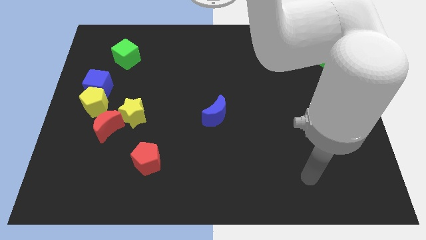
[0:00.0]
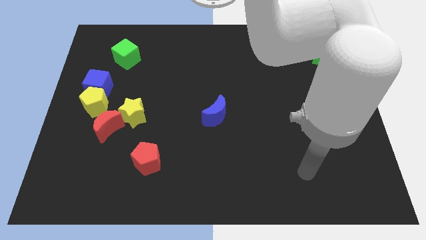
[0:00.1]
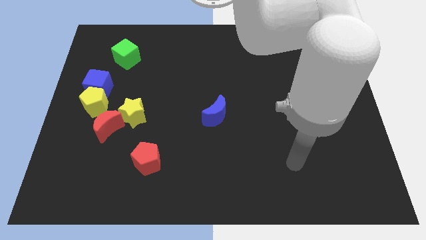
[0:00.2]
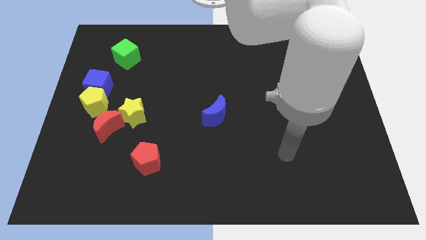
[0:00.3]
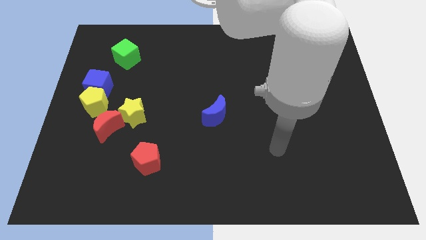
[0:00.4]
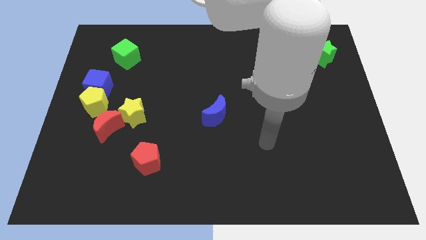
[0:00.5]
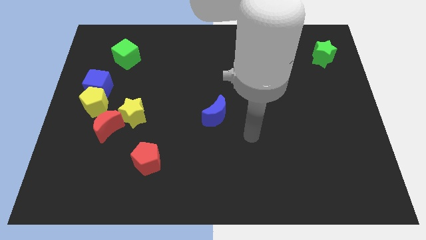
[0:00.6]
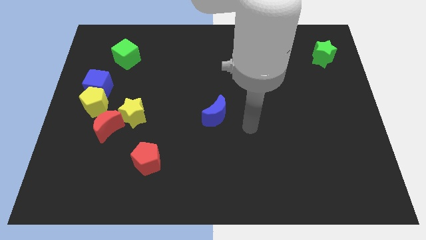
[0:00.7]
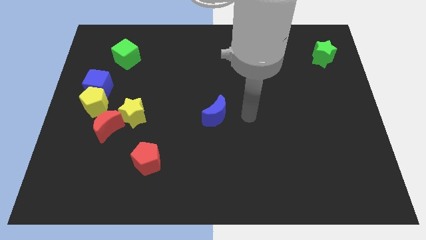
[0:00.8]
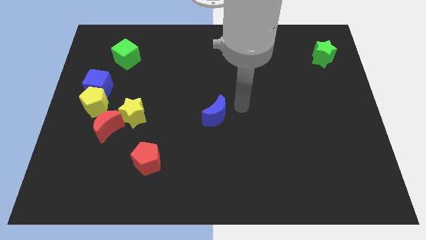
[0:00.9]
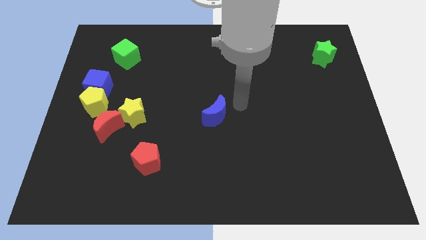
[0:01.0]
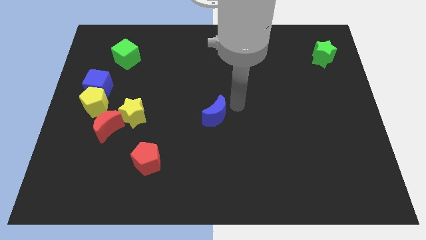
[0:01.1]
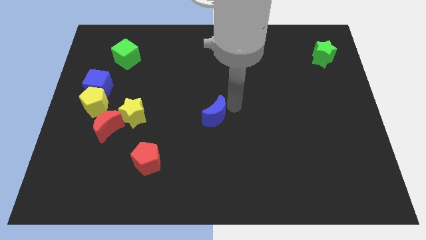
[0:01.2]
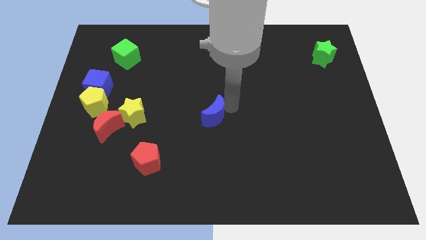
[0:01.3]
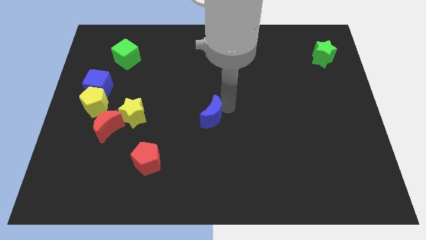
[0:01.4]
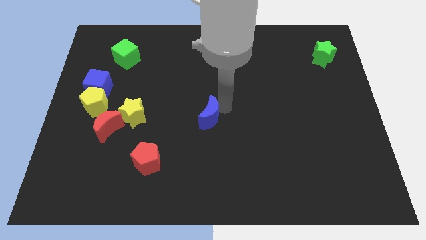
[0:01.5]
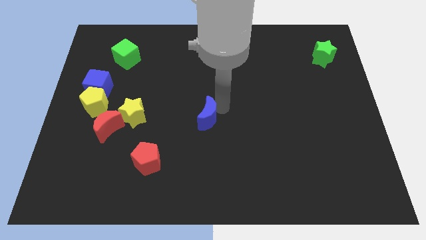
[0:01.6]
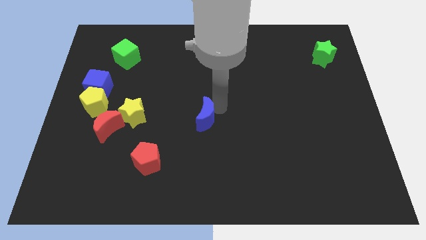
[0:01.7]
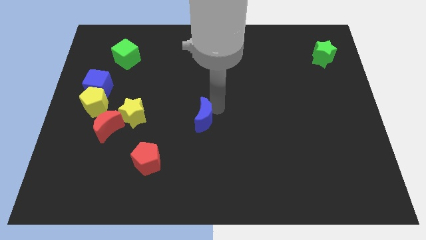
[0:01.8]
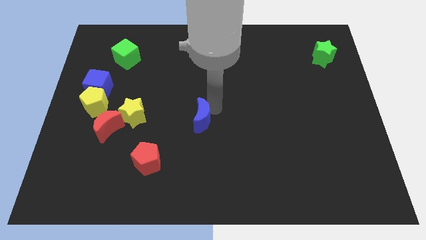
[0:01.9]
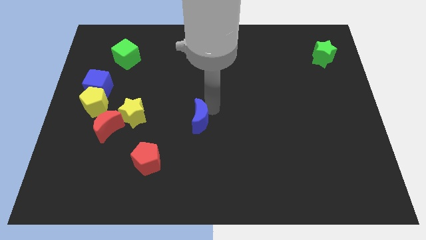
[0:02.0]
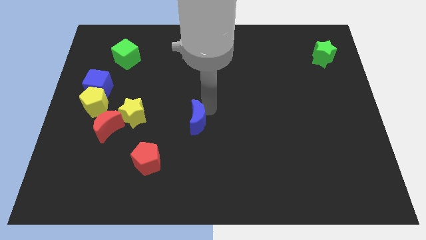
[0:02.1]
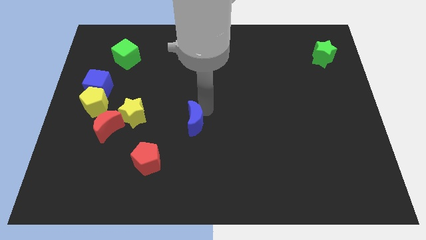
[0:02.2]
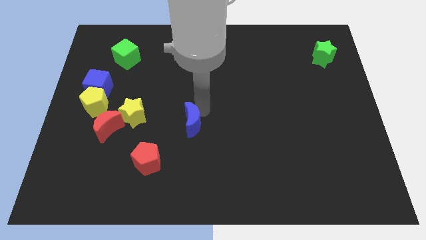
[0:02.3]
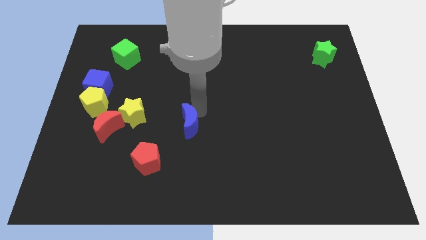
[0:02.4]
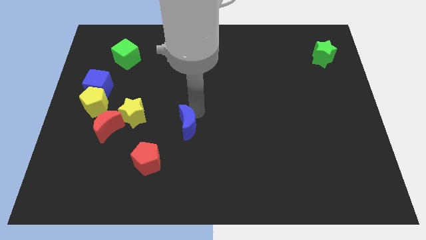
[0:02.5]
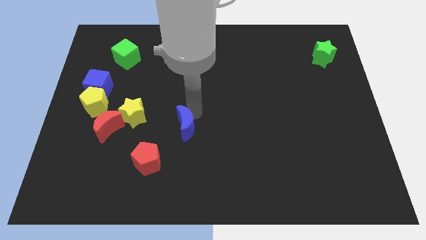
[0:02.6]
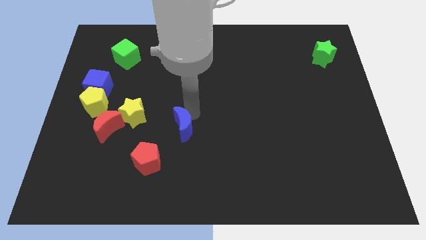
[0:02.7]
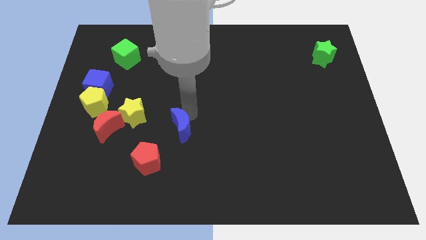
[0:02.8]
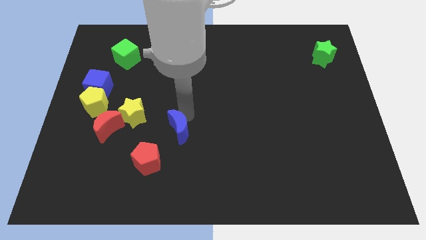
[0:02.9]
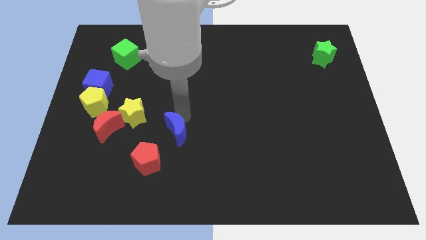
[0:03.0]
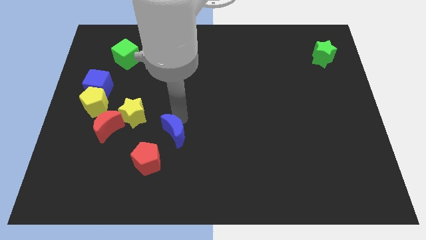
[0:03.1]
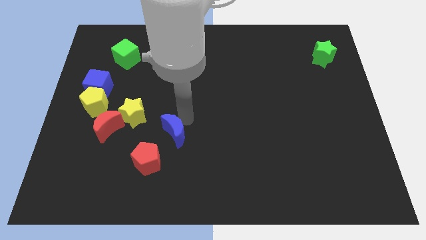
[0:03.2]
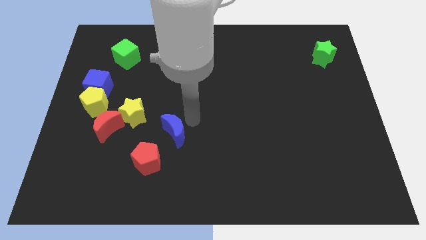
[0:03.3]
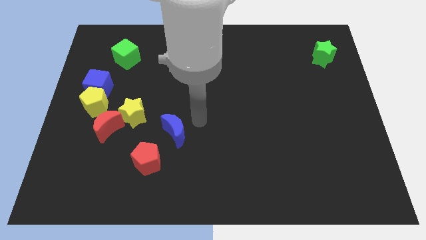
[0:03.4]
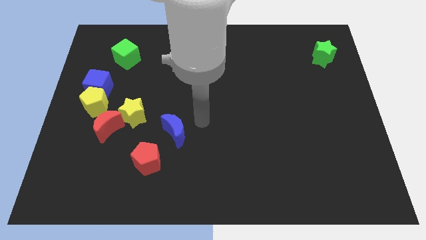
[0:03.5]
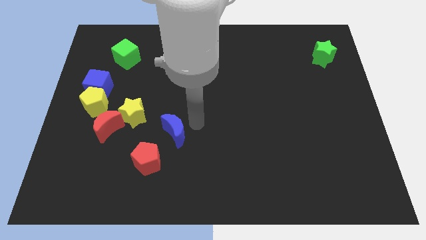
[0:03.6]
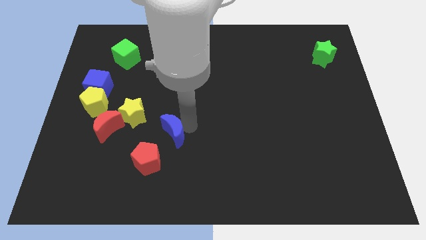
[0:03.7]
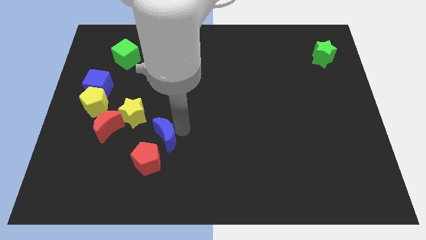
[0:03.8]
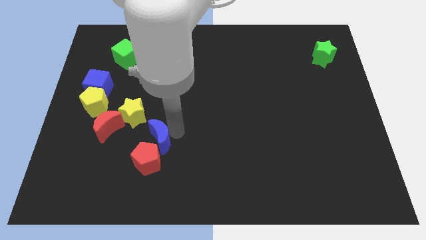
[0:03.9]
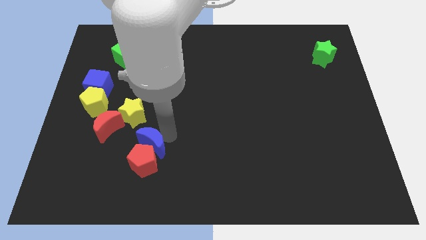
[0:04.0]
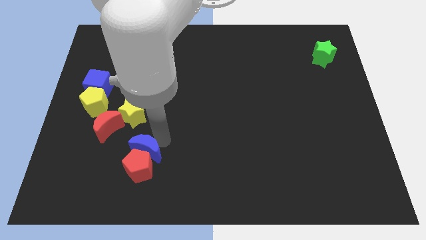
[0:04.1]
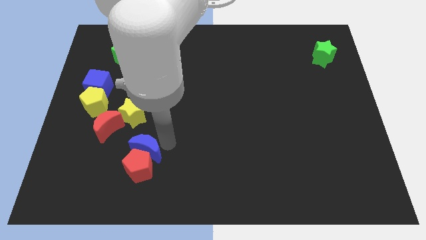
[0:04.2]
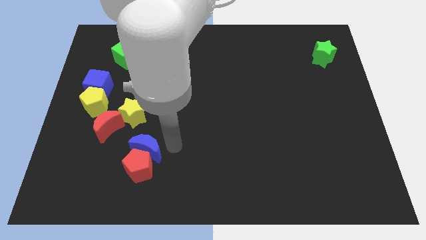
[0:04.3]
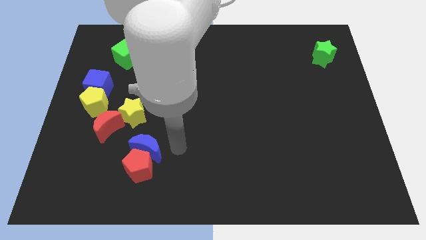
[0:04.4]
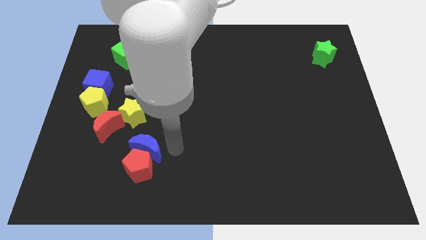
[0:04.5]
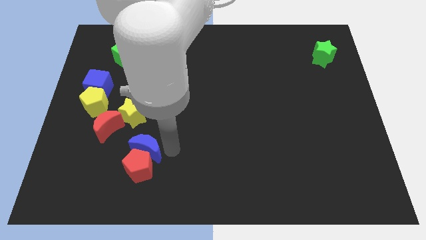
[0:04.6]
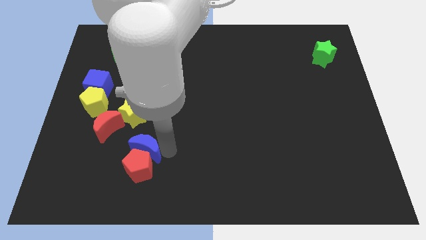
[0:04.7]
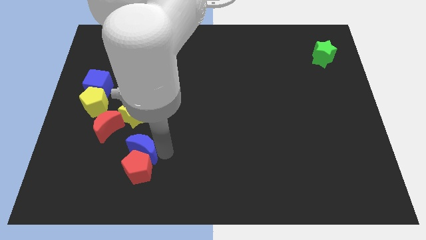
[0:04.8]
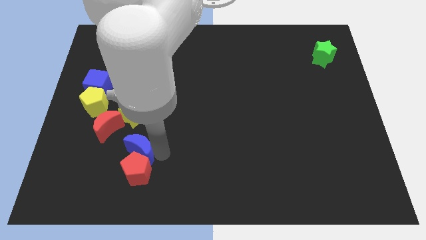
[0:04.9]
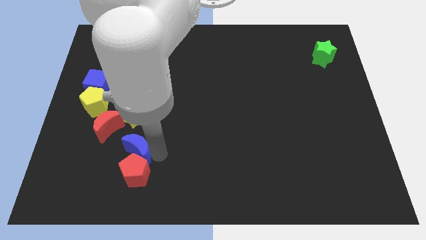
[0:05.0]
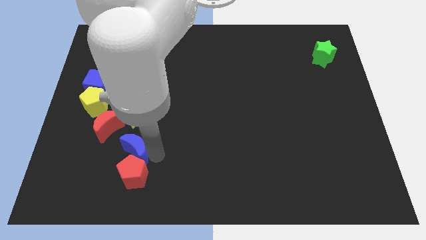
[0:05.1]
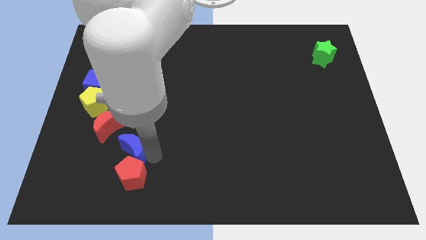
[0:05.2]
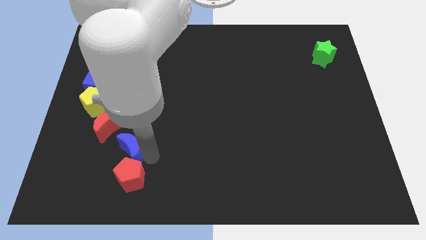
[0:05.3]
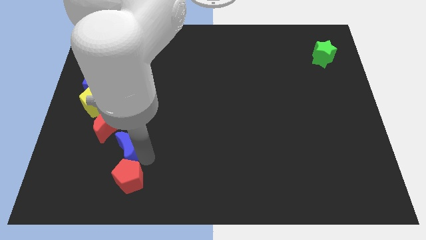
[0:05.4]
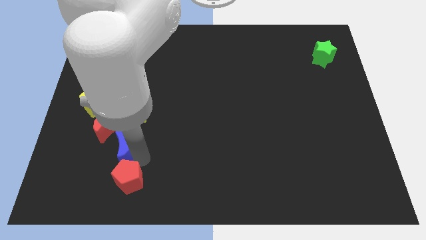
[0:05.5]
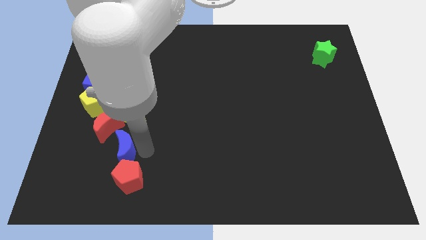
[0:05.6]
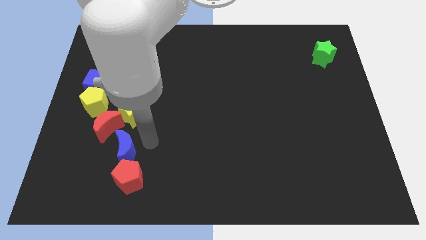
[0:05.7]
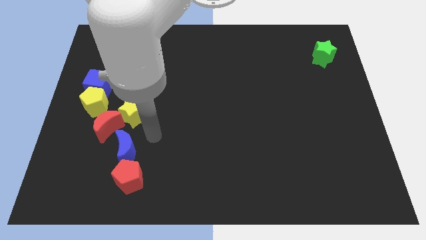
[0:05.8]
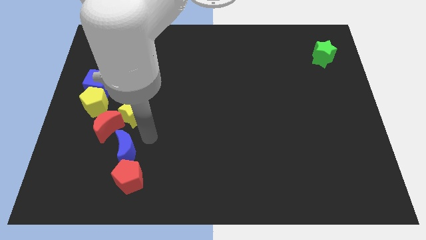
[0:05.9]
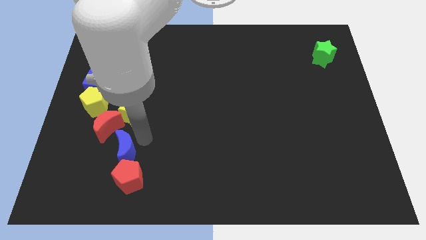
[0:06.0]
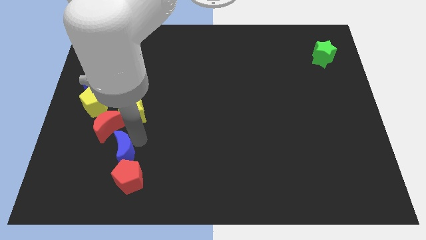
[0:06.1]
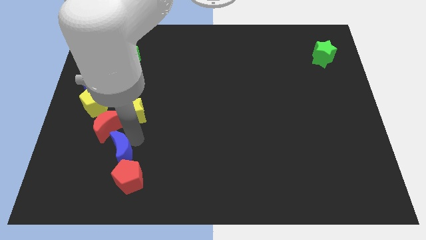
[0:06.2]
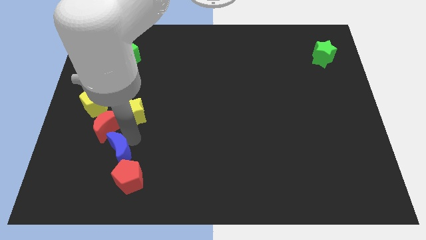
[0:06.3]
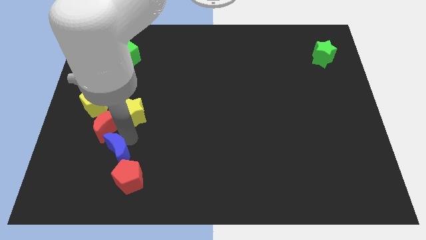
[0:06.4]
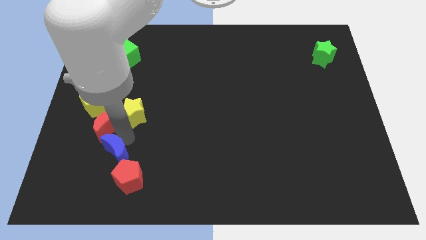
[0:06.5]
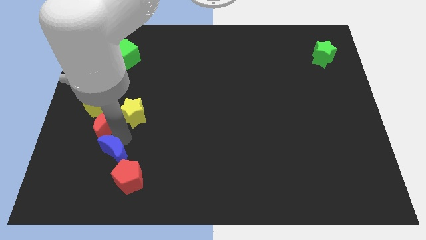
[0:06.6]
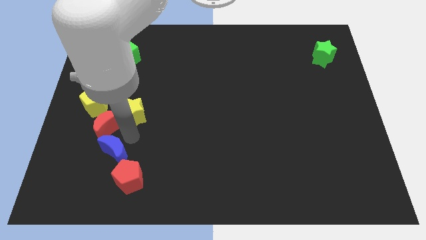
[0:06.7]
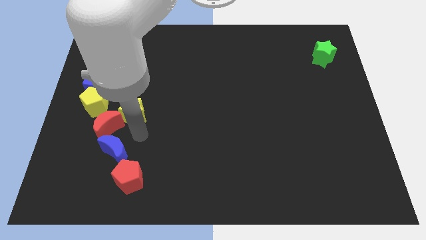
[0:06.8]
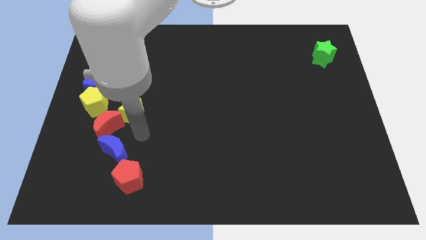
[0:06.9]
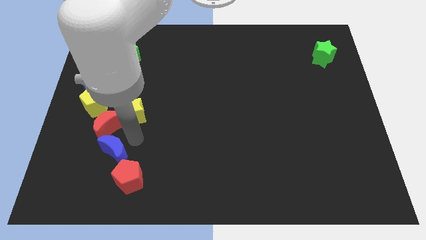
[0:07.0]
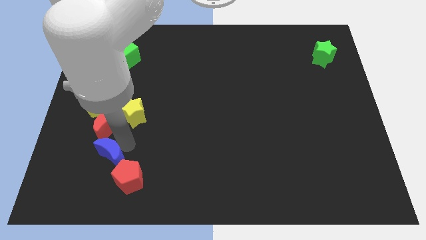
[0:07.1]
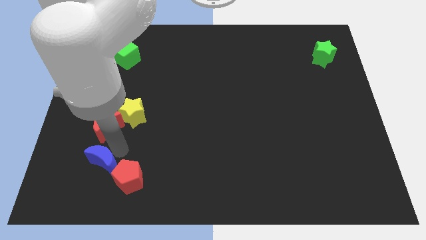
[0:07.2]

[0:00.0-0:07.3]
put the blue moon left of the red pentagon

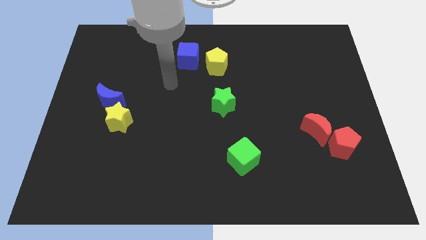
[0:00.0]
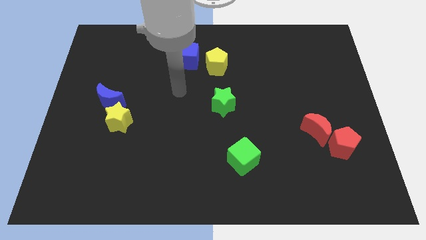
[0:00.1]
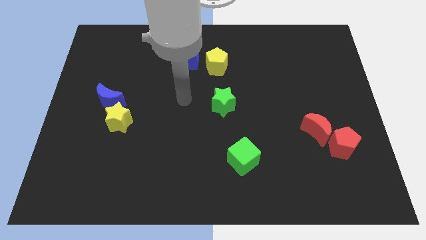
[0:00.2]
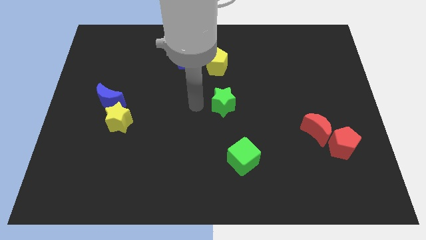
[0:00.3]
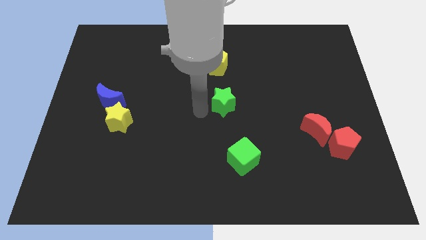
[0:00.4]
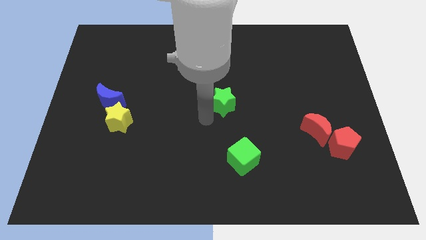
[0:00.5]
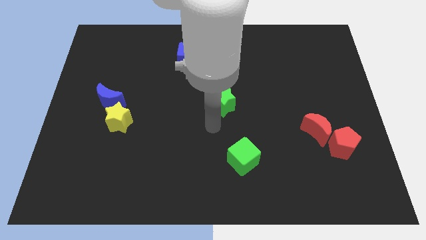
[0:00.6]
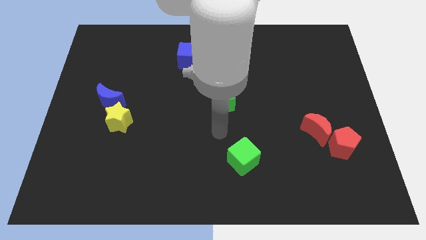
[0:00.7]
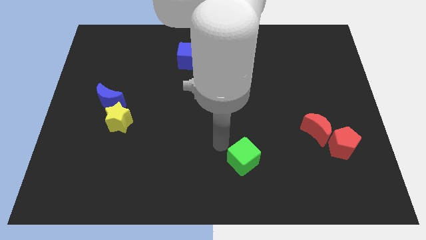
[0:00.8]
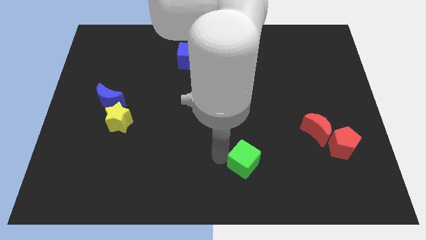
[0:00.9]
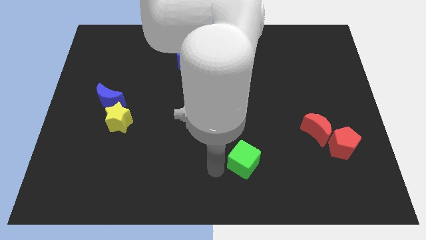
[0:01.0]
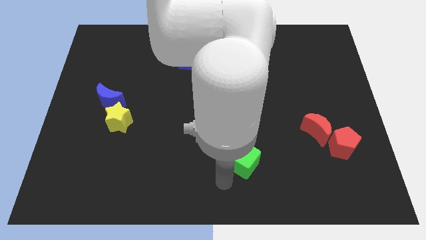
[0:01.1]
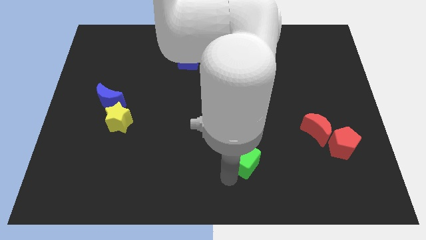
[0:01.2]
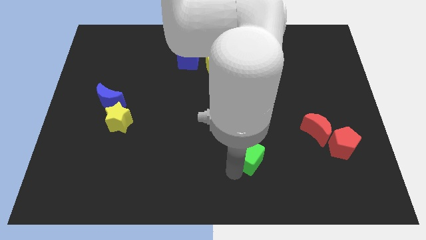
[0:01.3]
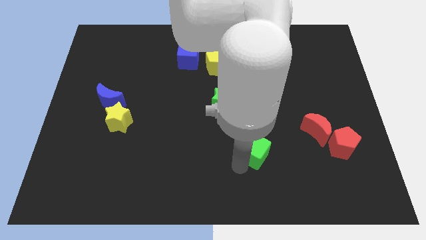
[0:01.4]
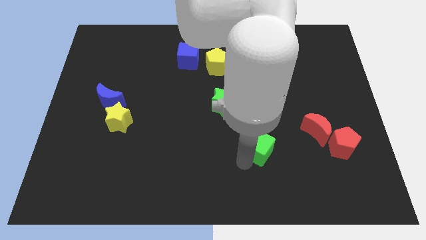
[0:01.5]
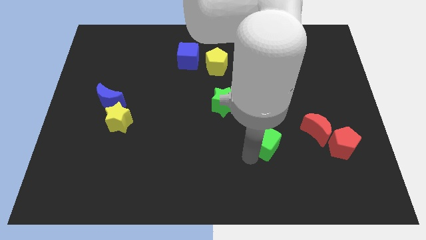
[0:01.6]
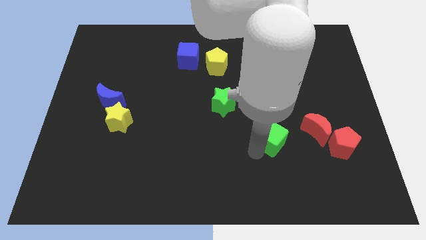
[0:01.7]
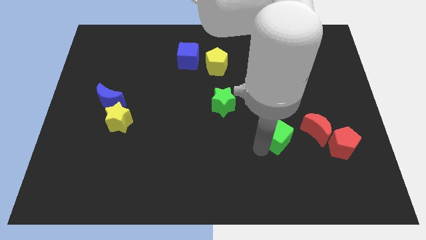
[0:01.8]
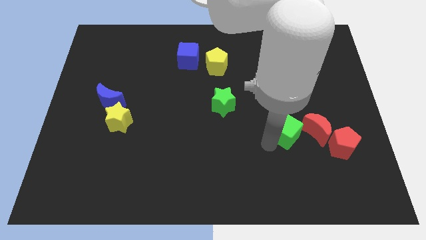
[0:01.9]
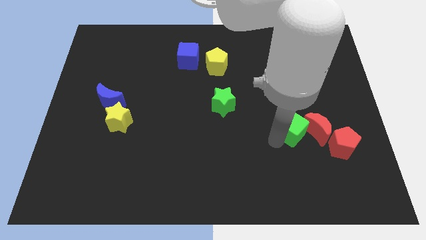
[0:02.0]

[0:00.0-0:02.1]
slide the green cube to the top left side of the red moon
